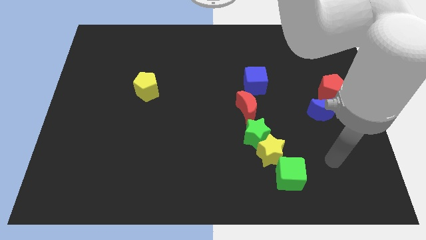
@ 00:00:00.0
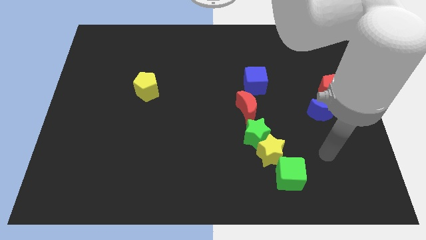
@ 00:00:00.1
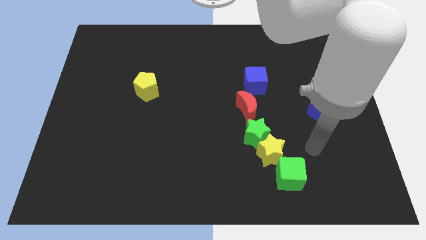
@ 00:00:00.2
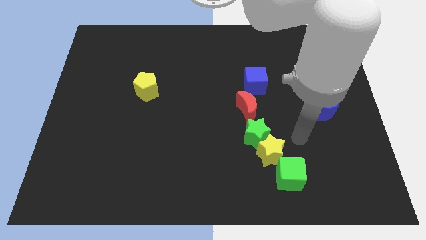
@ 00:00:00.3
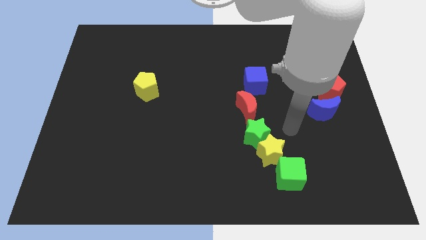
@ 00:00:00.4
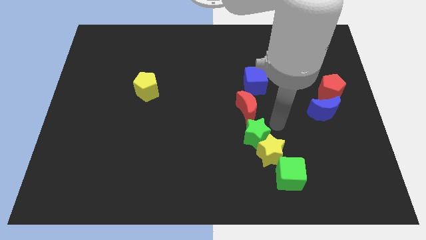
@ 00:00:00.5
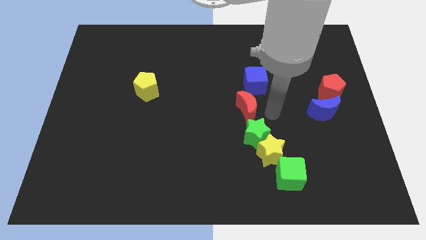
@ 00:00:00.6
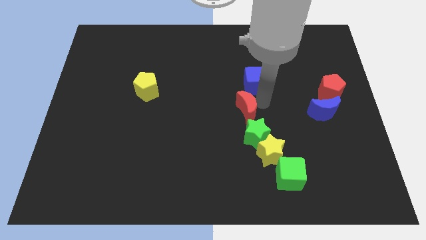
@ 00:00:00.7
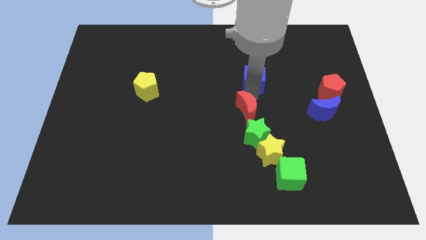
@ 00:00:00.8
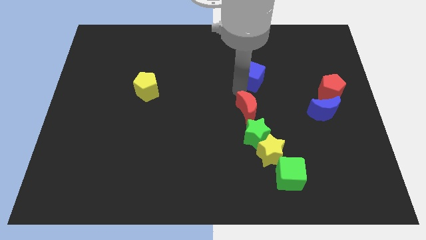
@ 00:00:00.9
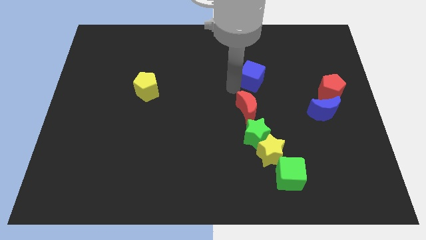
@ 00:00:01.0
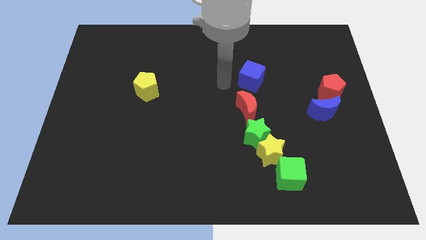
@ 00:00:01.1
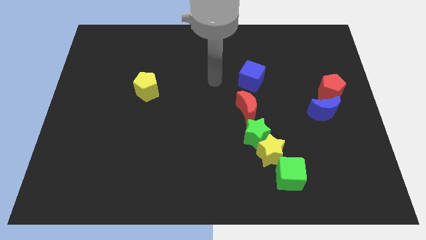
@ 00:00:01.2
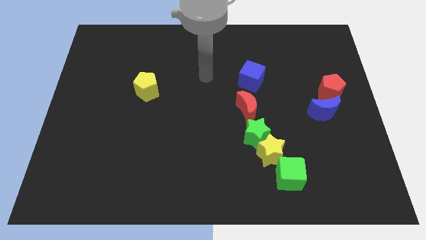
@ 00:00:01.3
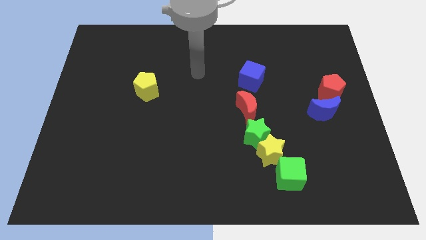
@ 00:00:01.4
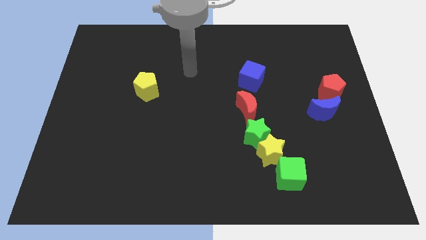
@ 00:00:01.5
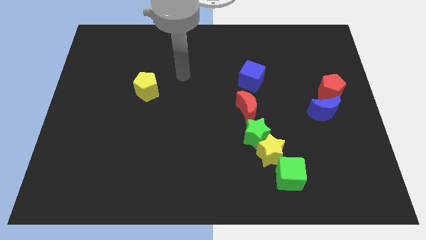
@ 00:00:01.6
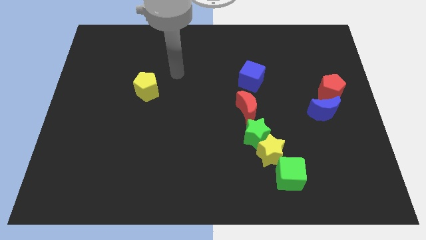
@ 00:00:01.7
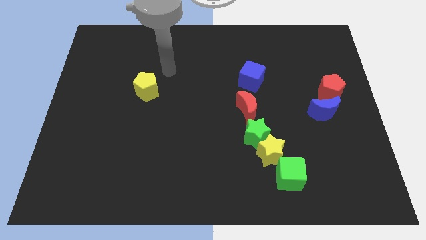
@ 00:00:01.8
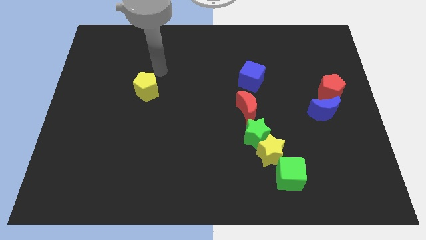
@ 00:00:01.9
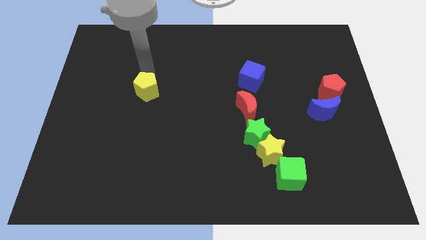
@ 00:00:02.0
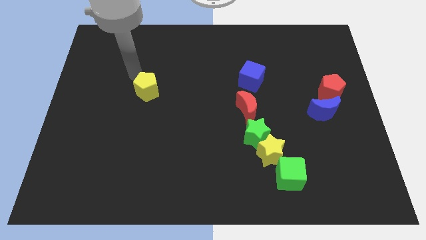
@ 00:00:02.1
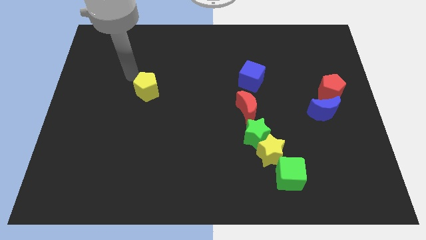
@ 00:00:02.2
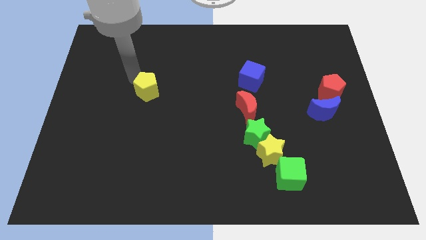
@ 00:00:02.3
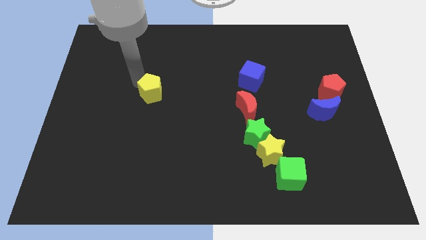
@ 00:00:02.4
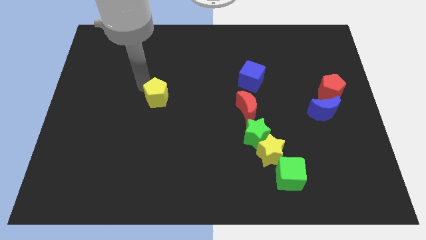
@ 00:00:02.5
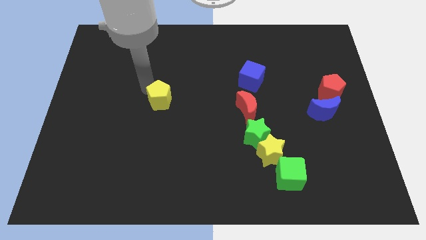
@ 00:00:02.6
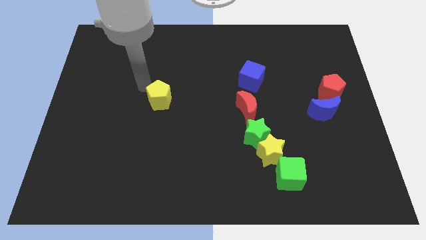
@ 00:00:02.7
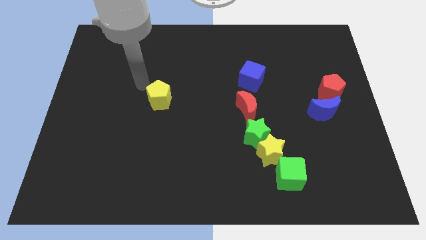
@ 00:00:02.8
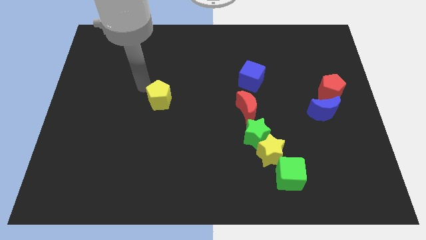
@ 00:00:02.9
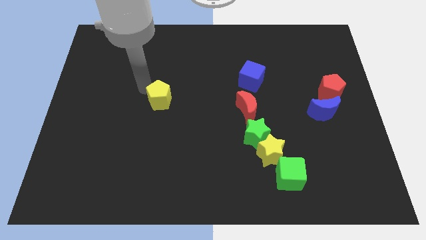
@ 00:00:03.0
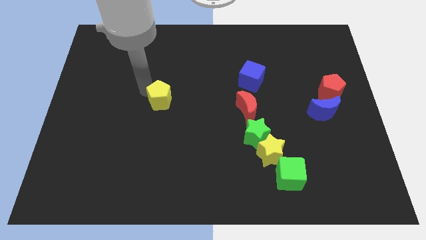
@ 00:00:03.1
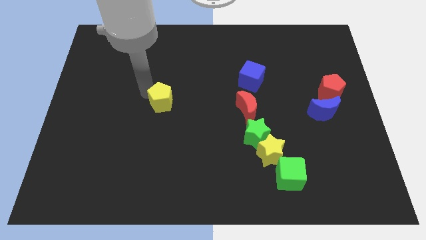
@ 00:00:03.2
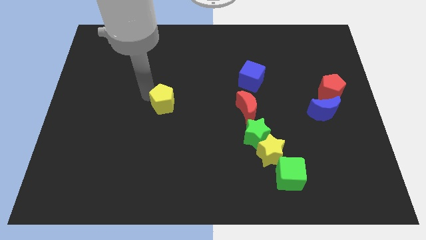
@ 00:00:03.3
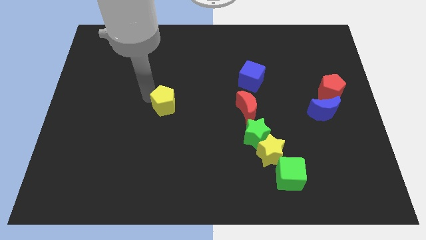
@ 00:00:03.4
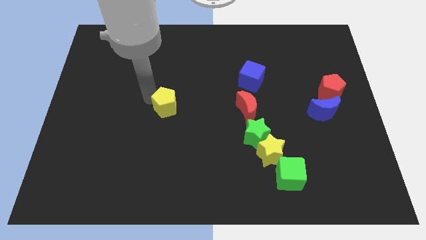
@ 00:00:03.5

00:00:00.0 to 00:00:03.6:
slightly push the yellow pentagon down and right

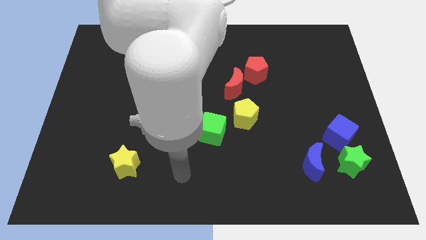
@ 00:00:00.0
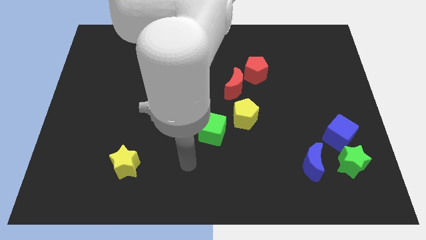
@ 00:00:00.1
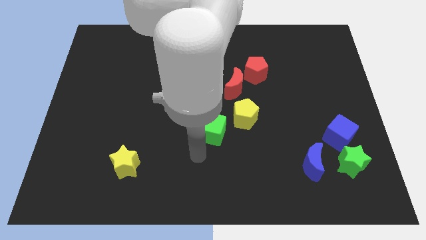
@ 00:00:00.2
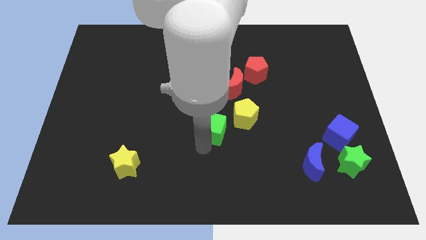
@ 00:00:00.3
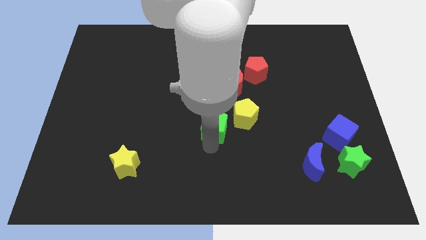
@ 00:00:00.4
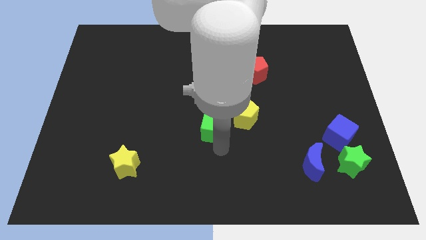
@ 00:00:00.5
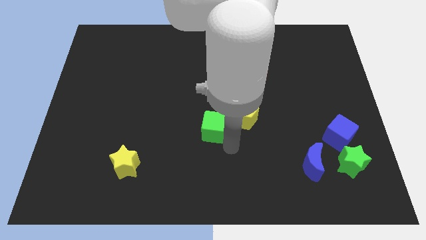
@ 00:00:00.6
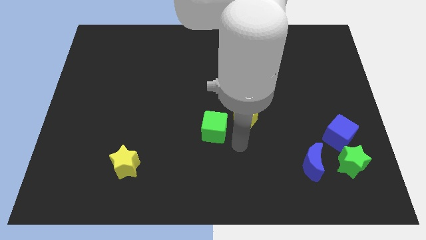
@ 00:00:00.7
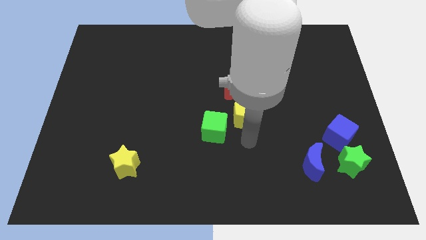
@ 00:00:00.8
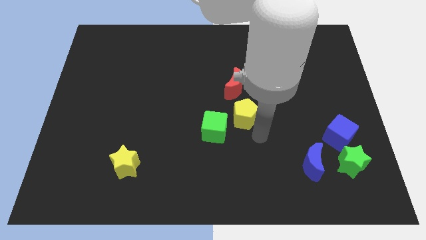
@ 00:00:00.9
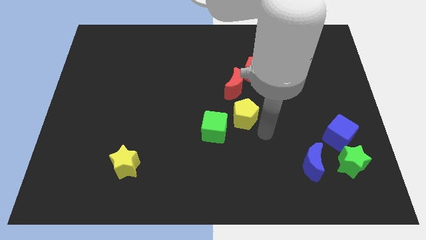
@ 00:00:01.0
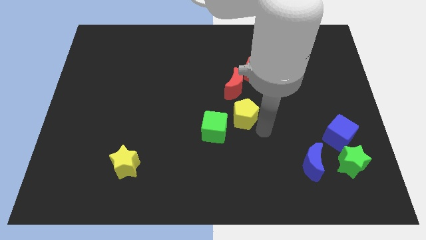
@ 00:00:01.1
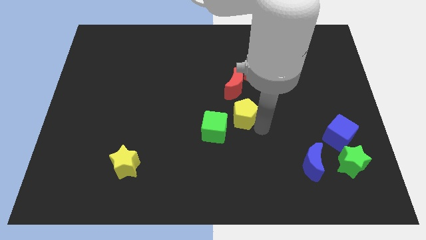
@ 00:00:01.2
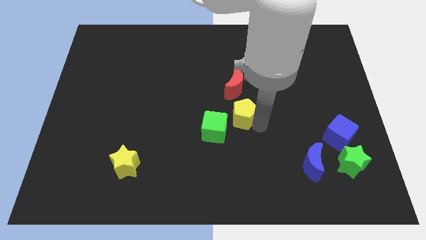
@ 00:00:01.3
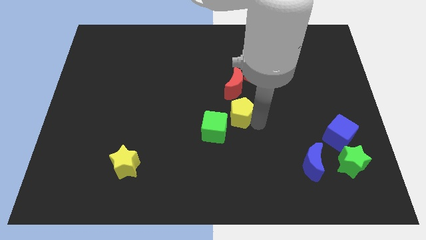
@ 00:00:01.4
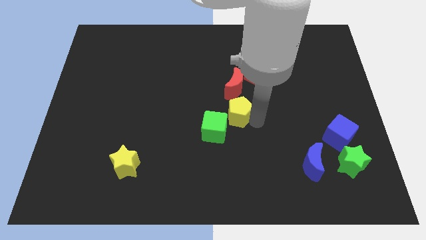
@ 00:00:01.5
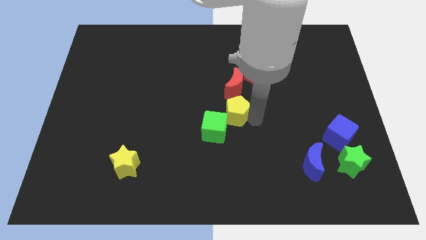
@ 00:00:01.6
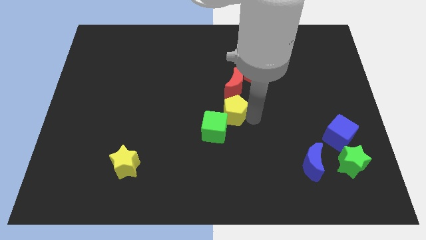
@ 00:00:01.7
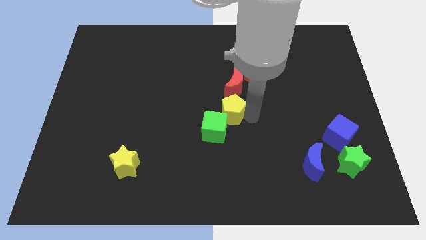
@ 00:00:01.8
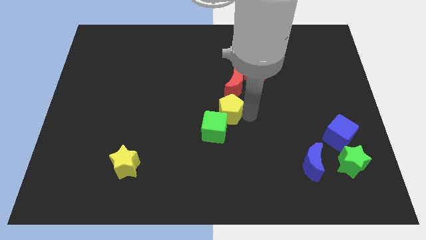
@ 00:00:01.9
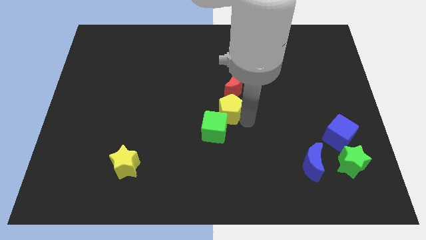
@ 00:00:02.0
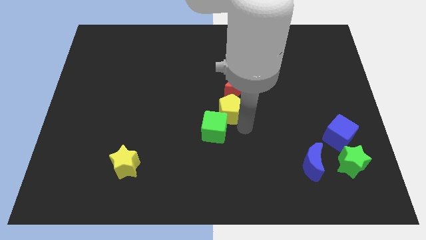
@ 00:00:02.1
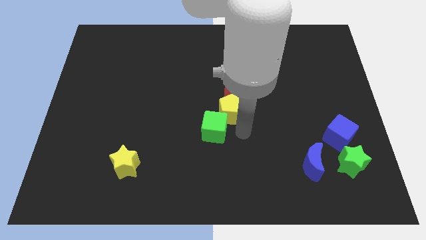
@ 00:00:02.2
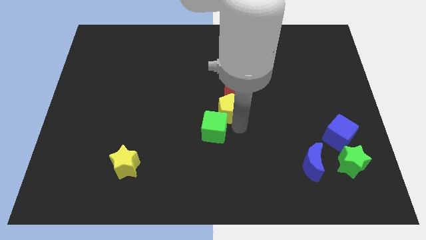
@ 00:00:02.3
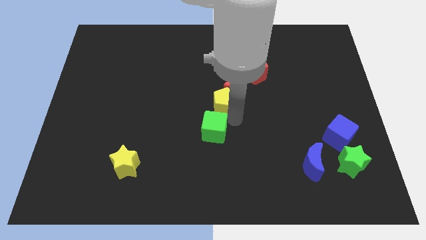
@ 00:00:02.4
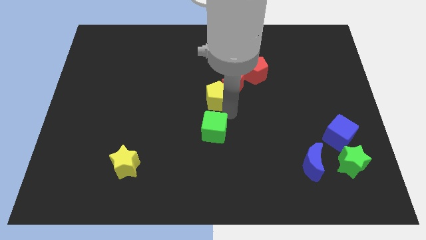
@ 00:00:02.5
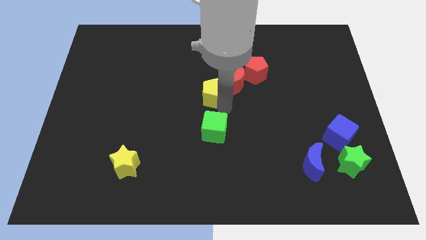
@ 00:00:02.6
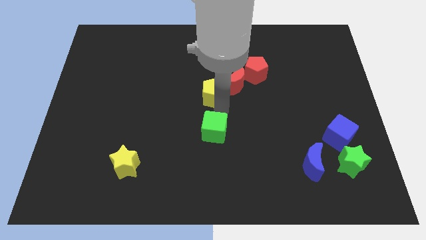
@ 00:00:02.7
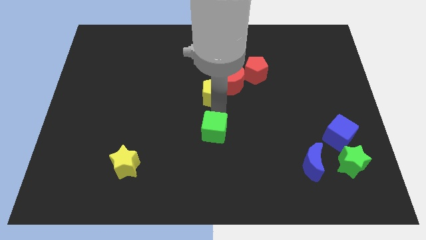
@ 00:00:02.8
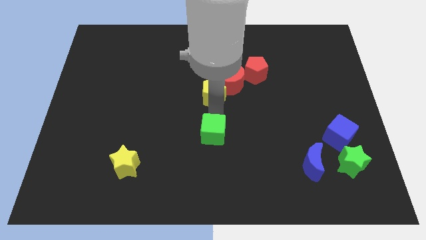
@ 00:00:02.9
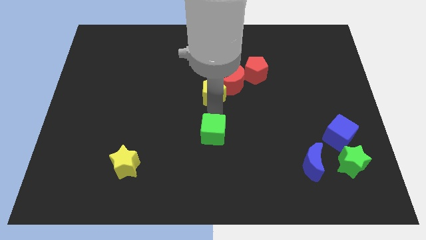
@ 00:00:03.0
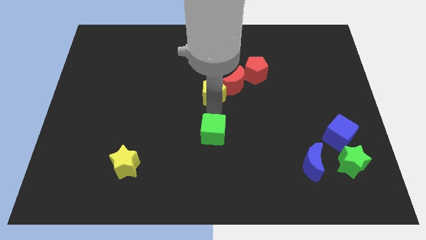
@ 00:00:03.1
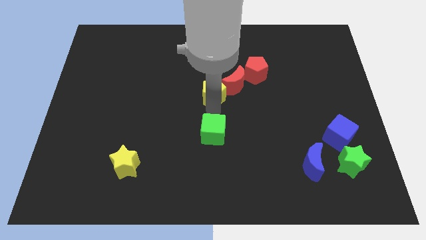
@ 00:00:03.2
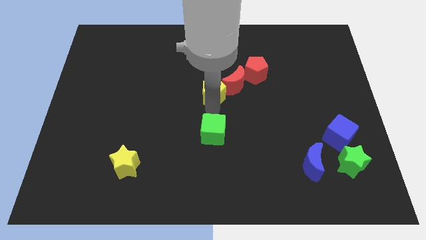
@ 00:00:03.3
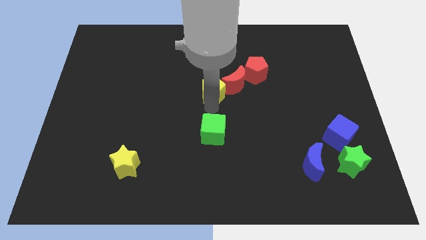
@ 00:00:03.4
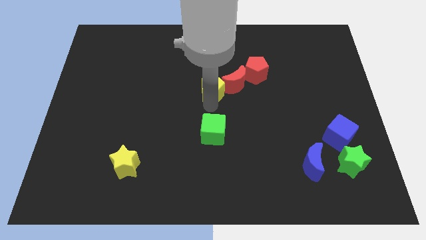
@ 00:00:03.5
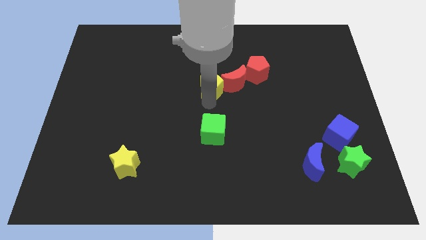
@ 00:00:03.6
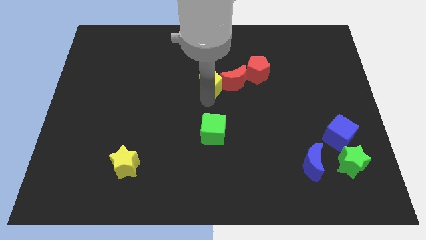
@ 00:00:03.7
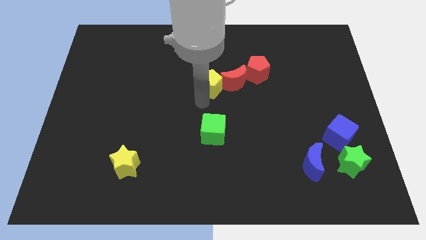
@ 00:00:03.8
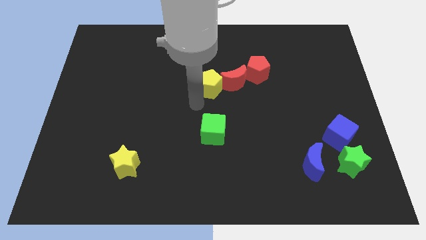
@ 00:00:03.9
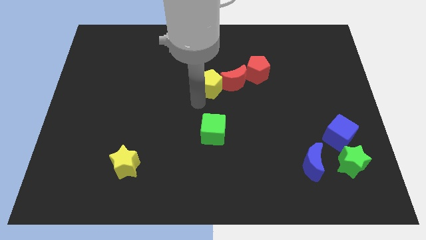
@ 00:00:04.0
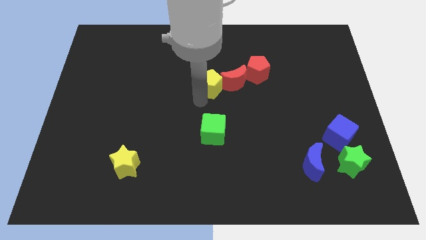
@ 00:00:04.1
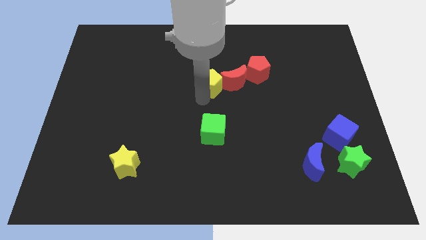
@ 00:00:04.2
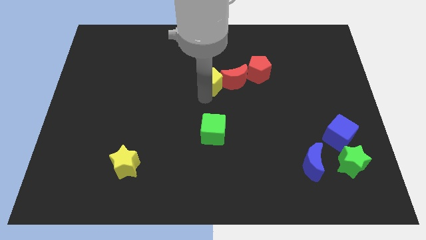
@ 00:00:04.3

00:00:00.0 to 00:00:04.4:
slightly move the yellow pentagon up
